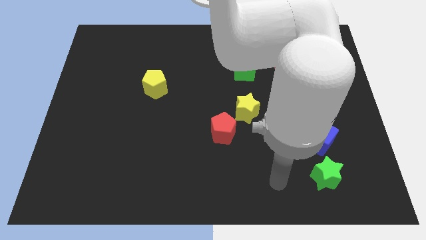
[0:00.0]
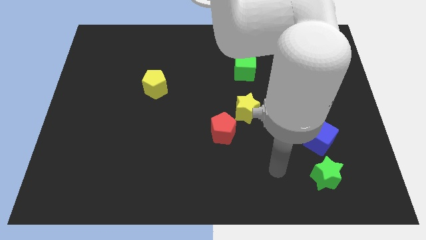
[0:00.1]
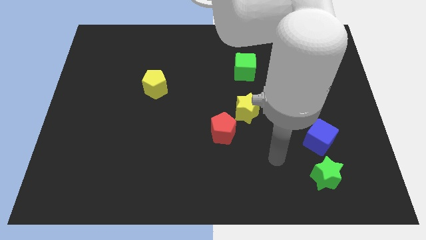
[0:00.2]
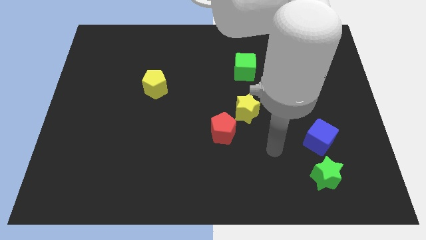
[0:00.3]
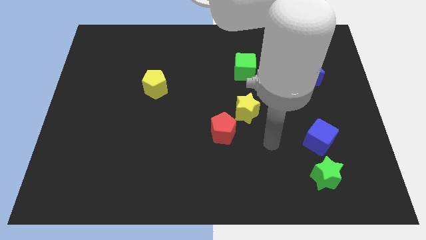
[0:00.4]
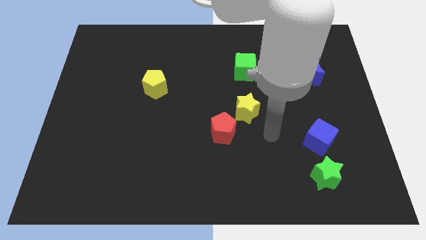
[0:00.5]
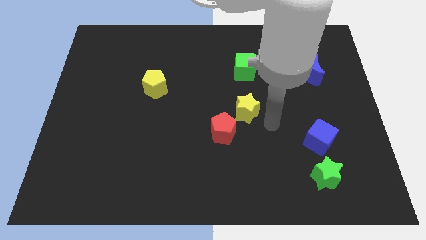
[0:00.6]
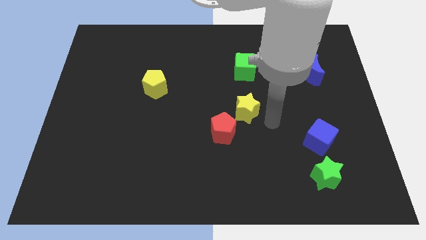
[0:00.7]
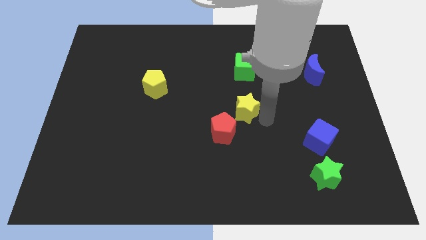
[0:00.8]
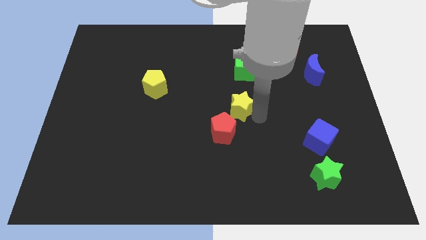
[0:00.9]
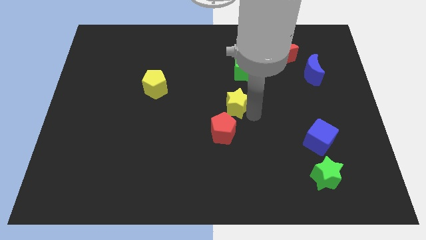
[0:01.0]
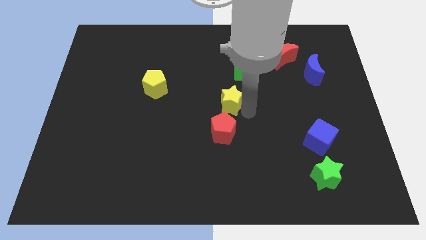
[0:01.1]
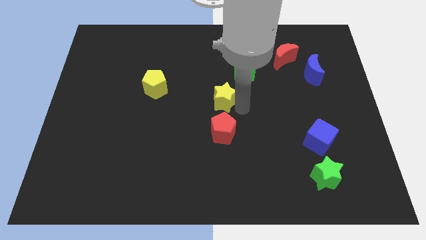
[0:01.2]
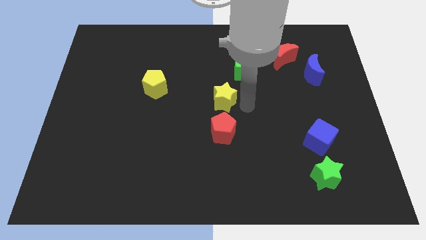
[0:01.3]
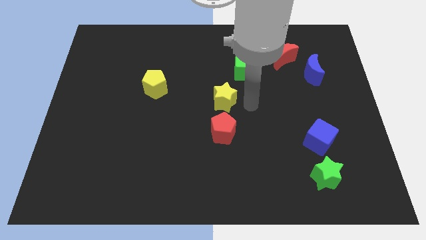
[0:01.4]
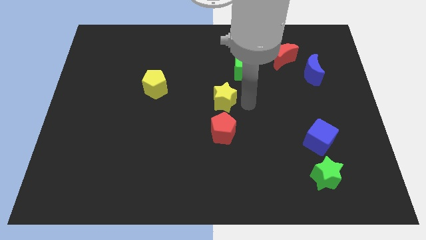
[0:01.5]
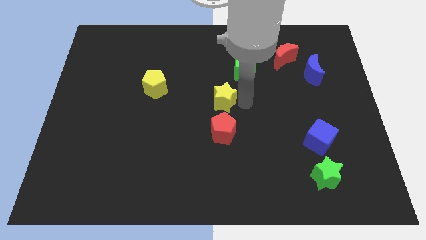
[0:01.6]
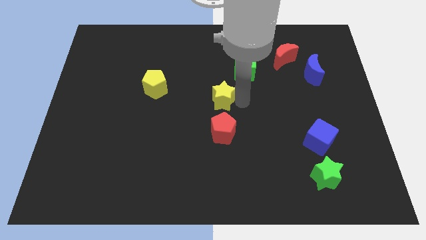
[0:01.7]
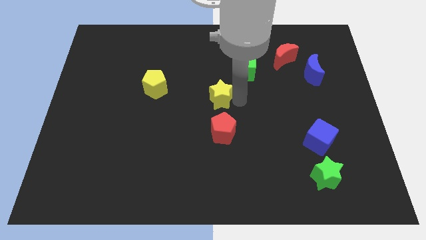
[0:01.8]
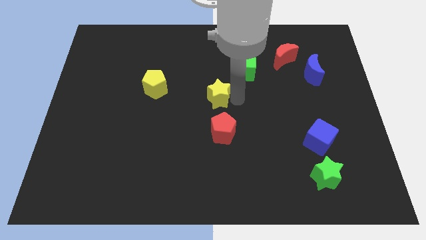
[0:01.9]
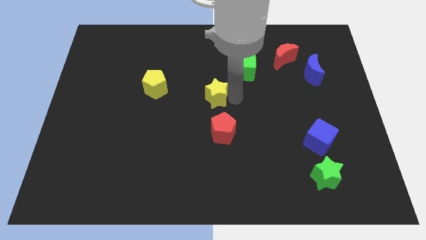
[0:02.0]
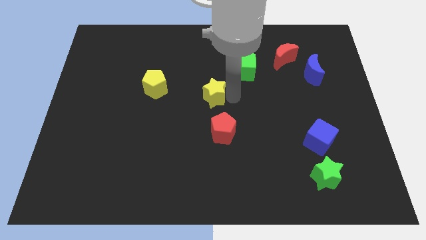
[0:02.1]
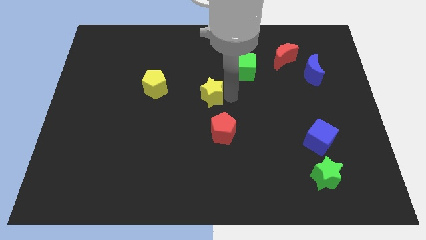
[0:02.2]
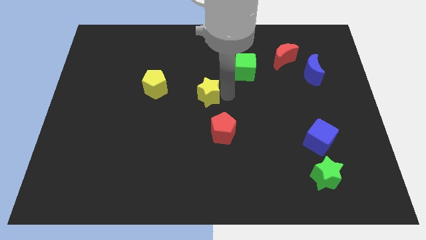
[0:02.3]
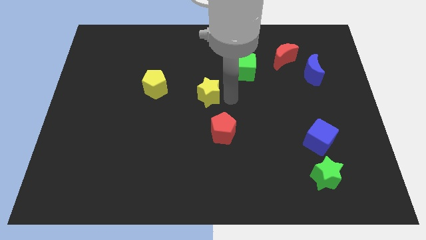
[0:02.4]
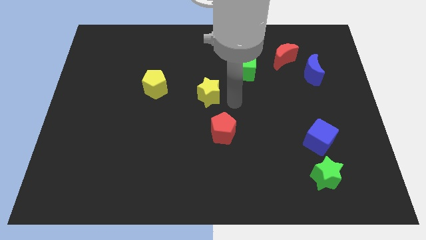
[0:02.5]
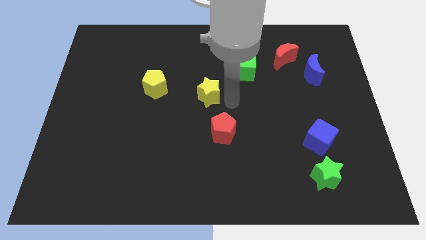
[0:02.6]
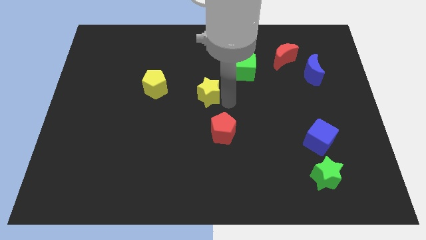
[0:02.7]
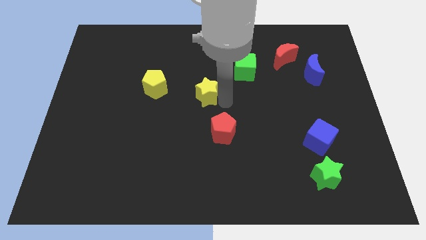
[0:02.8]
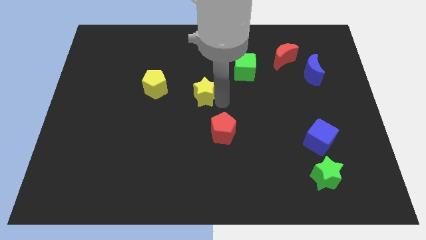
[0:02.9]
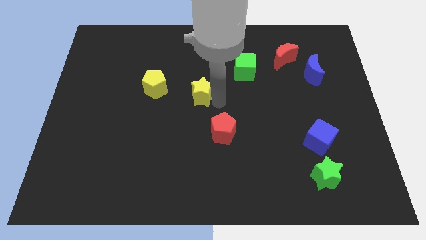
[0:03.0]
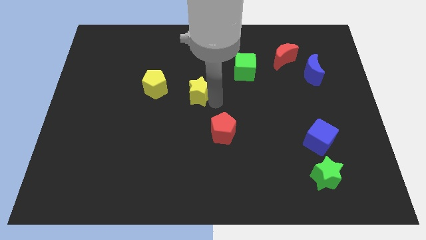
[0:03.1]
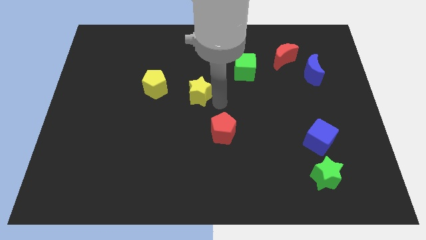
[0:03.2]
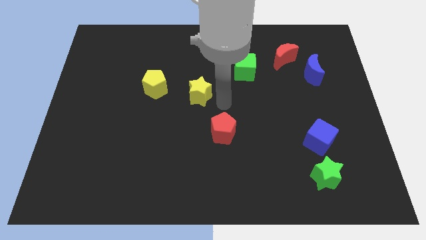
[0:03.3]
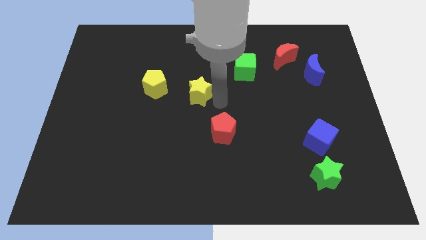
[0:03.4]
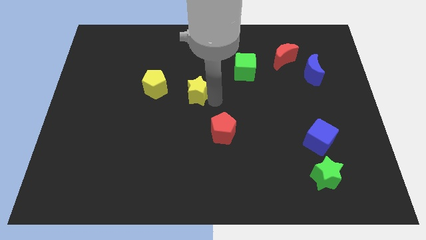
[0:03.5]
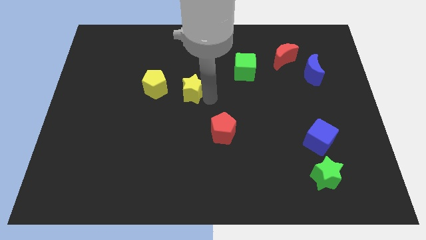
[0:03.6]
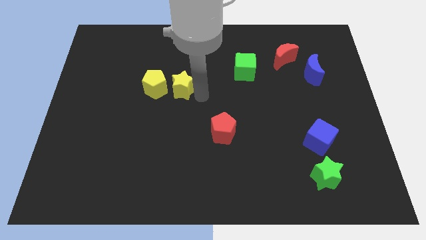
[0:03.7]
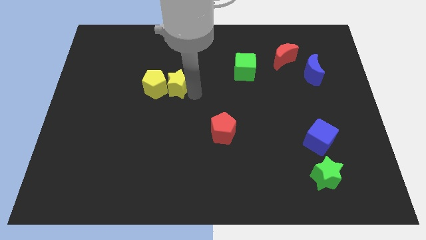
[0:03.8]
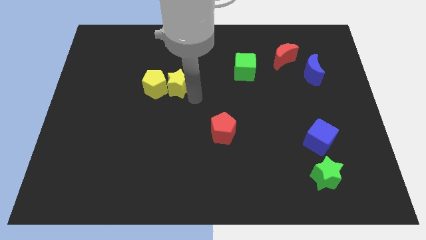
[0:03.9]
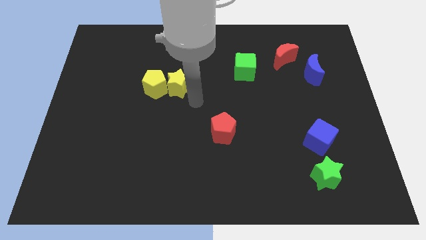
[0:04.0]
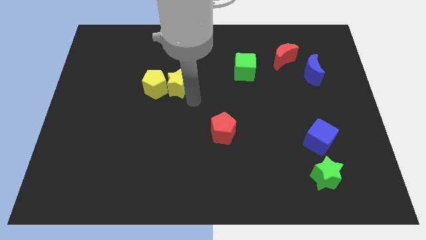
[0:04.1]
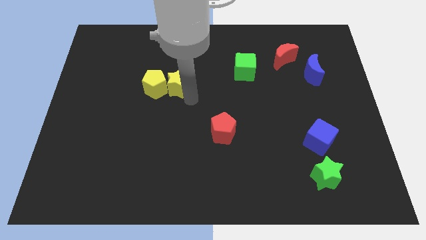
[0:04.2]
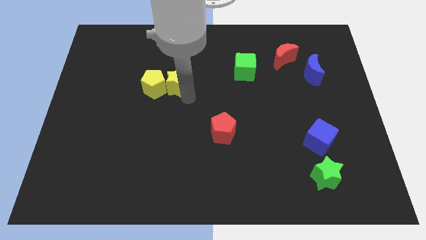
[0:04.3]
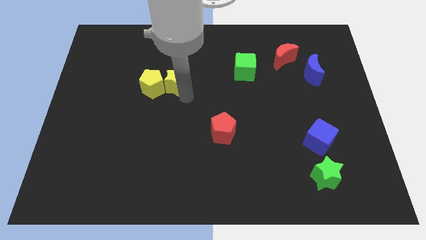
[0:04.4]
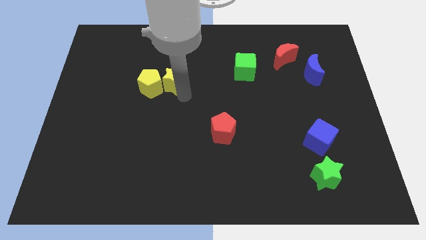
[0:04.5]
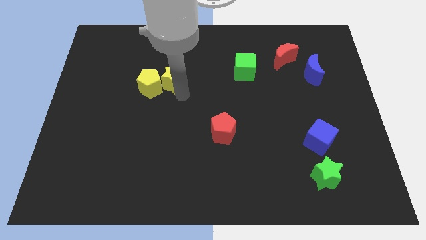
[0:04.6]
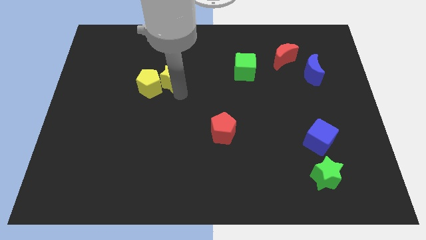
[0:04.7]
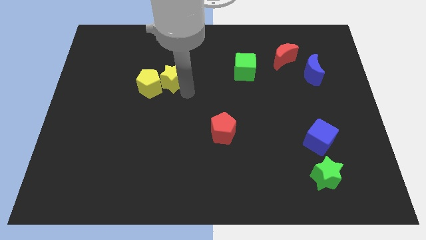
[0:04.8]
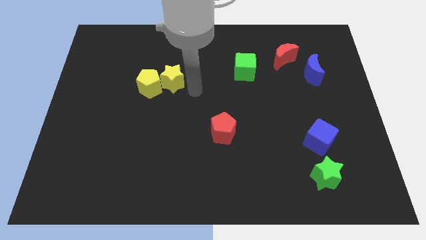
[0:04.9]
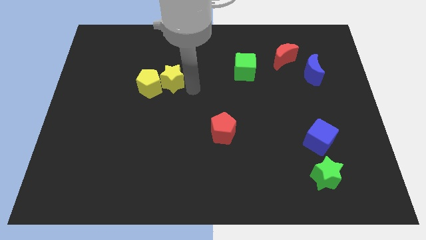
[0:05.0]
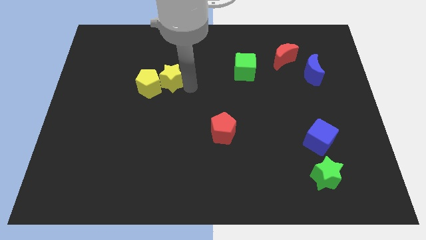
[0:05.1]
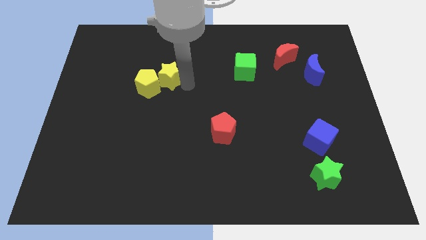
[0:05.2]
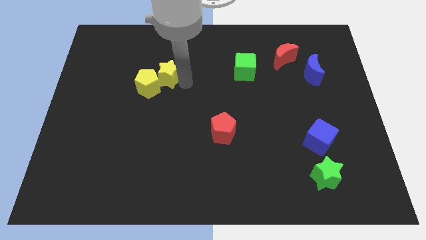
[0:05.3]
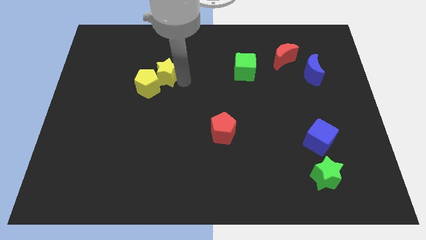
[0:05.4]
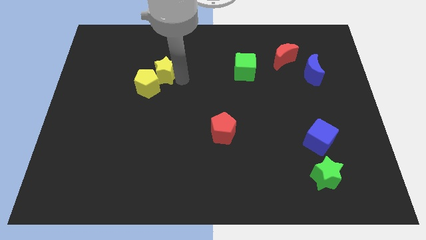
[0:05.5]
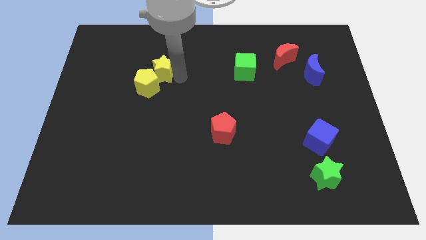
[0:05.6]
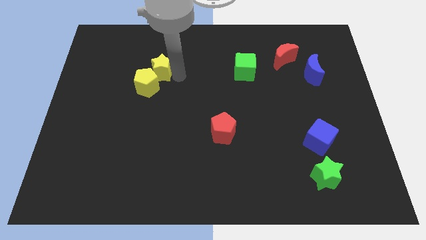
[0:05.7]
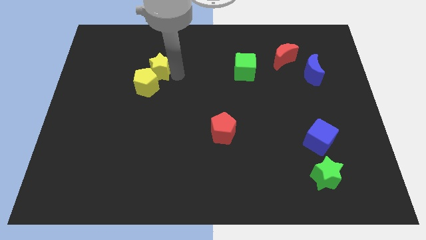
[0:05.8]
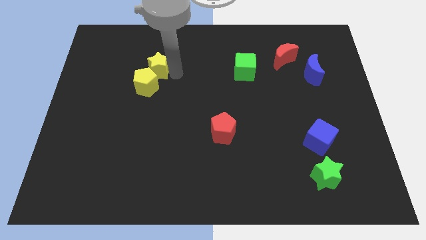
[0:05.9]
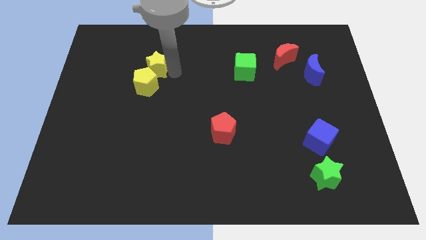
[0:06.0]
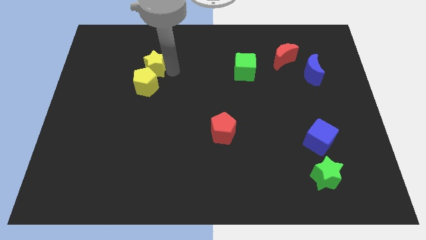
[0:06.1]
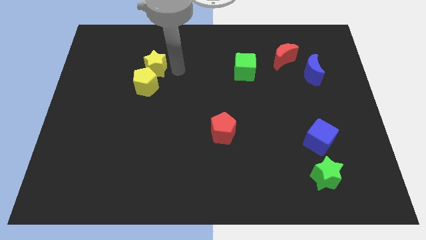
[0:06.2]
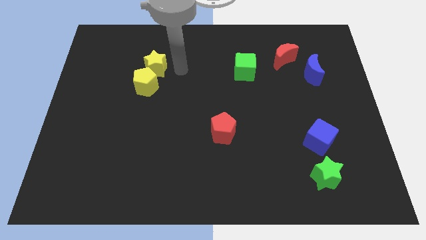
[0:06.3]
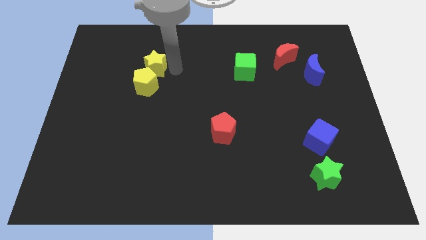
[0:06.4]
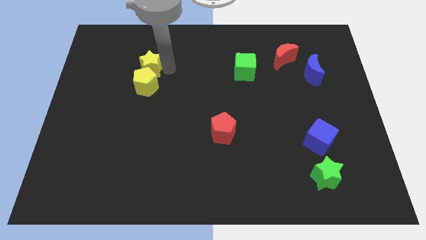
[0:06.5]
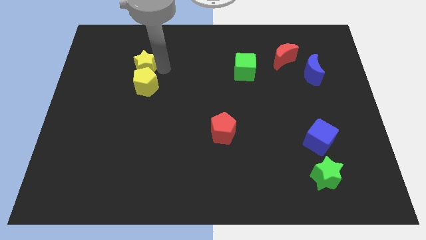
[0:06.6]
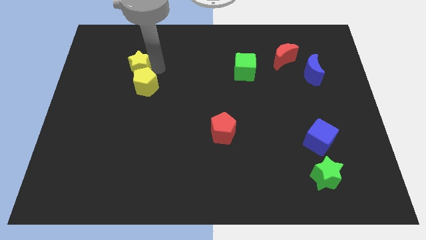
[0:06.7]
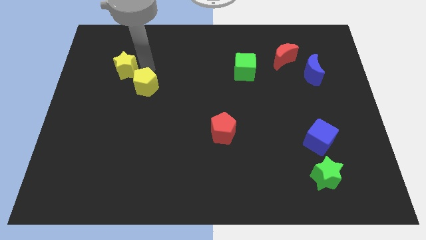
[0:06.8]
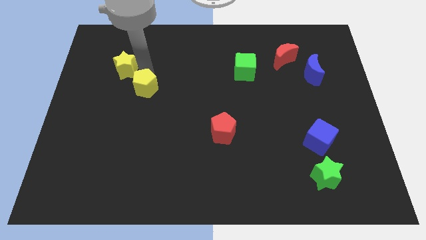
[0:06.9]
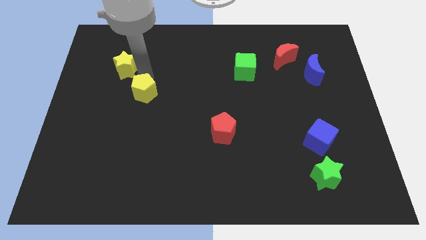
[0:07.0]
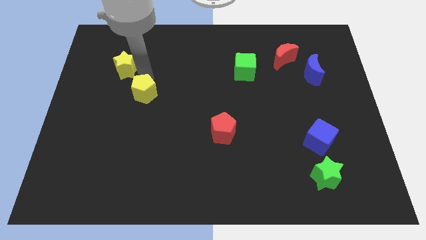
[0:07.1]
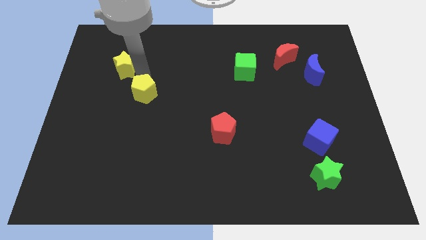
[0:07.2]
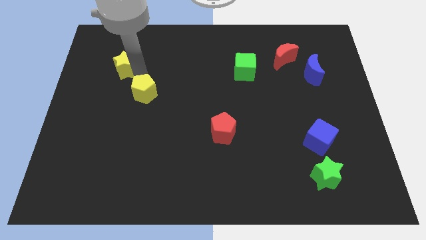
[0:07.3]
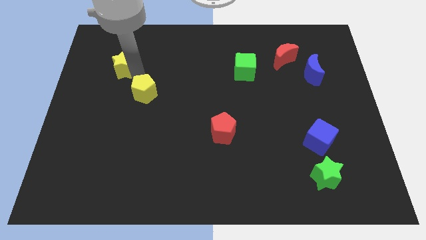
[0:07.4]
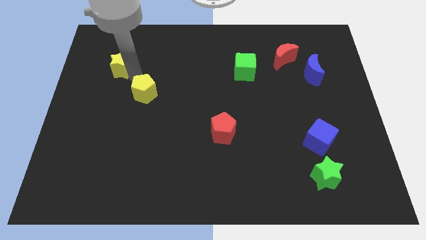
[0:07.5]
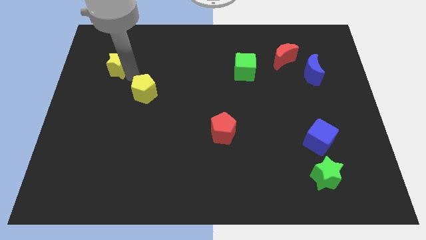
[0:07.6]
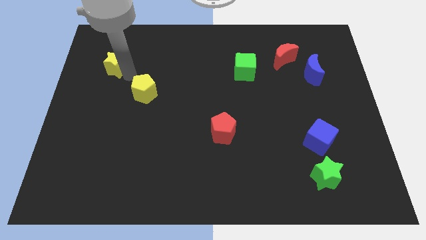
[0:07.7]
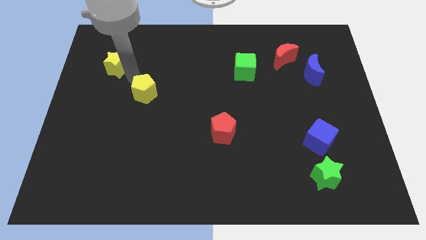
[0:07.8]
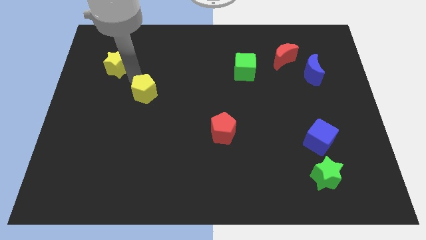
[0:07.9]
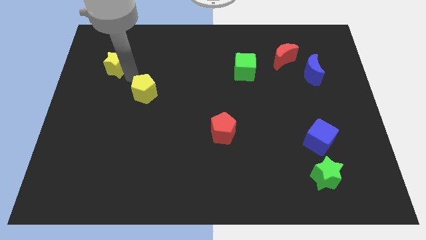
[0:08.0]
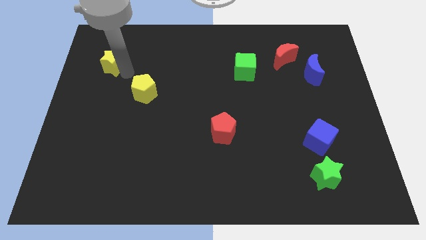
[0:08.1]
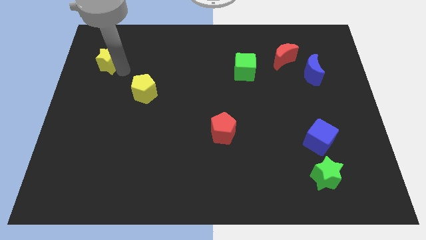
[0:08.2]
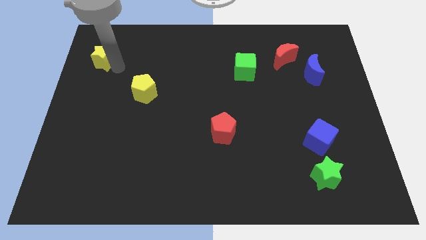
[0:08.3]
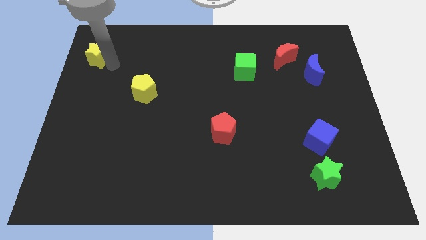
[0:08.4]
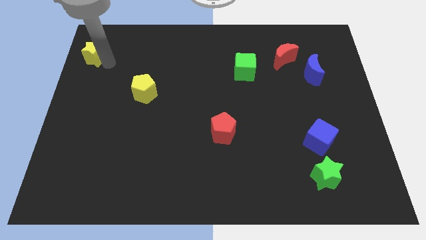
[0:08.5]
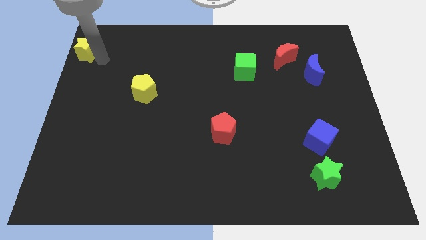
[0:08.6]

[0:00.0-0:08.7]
move the yellow star to the upper left corner
